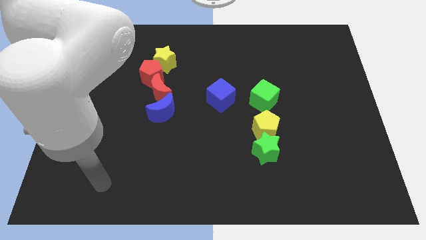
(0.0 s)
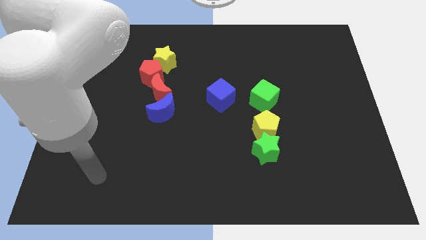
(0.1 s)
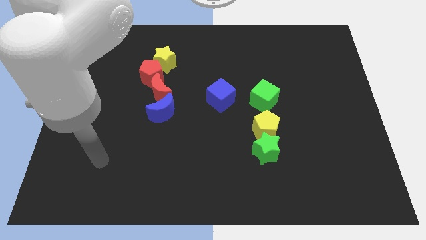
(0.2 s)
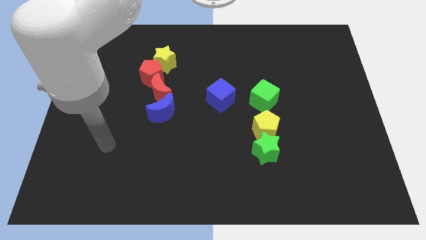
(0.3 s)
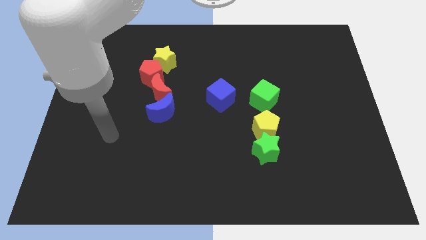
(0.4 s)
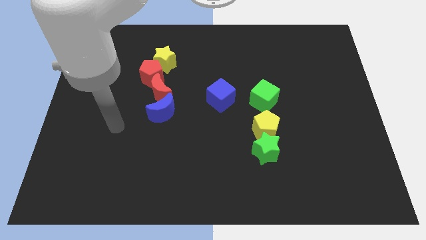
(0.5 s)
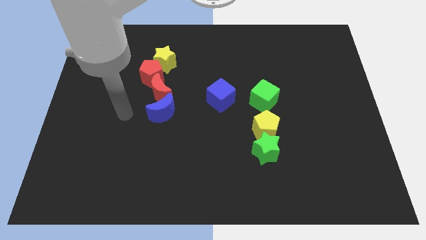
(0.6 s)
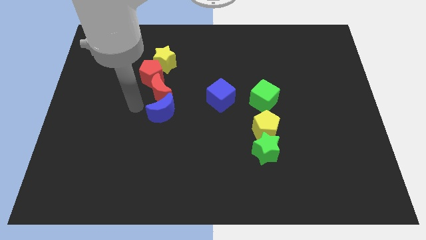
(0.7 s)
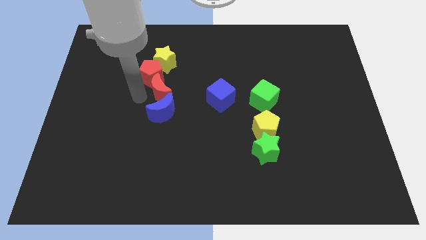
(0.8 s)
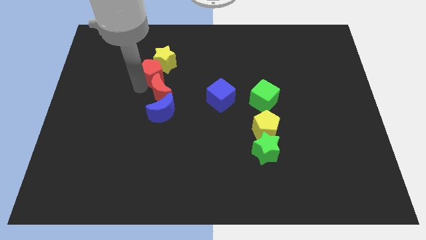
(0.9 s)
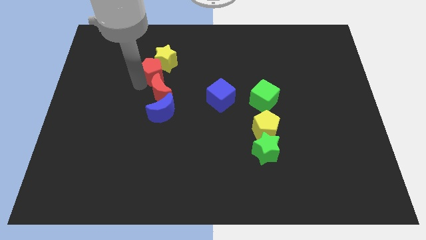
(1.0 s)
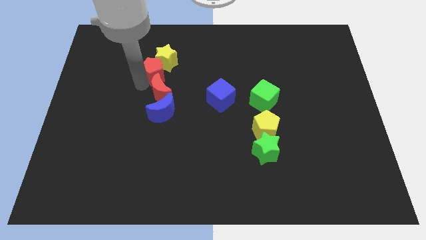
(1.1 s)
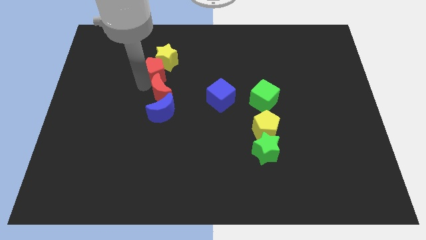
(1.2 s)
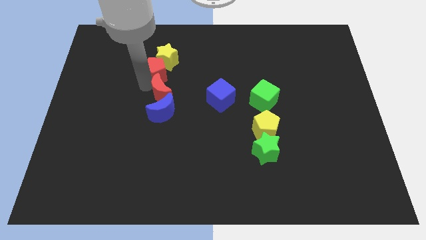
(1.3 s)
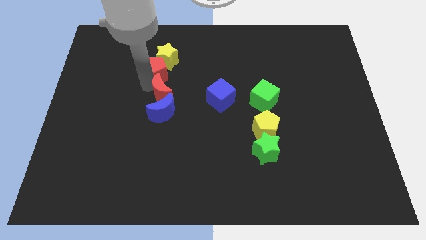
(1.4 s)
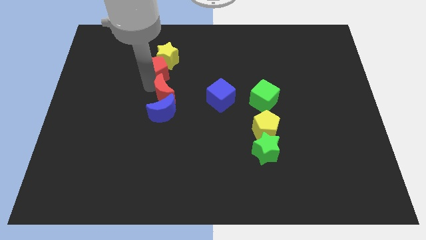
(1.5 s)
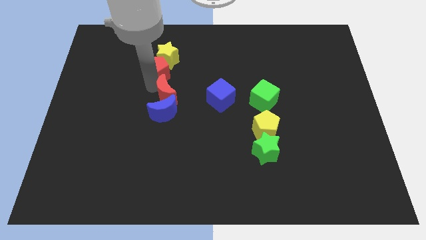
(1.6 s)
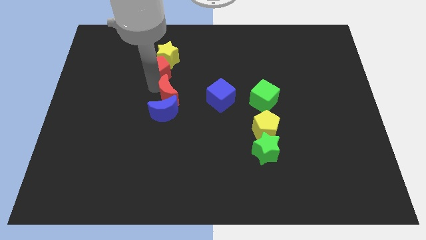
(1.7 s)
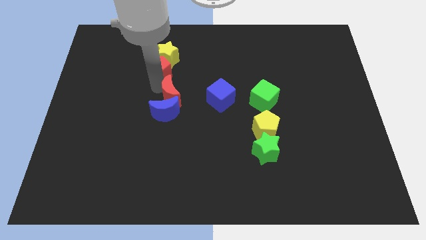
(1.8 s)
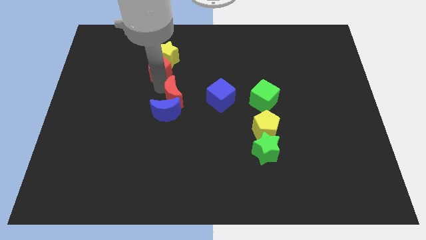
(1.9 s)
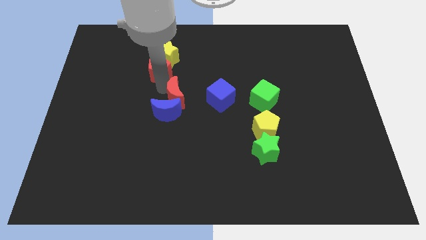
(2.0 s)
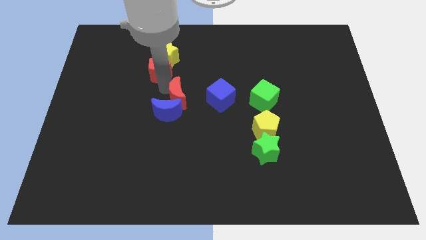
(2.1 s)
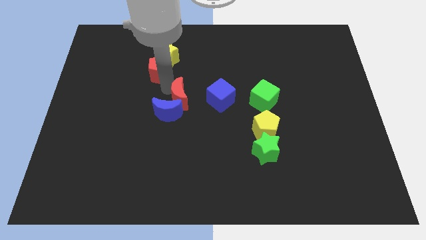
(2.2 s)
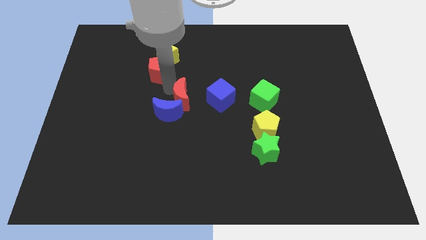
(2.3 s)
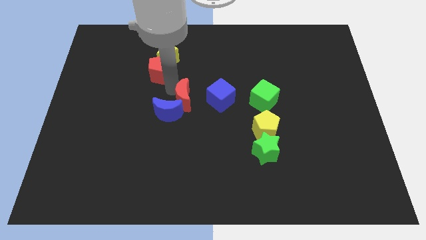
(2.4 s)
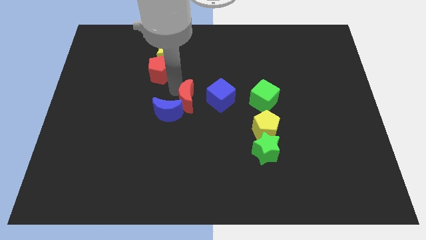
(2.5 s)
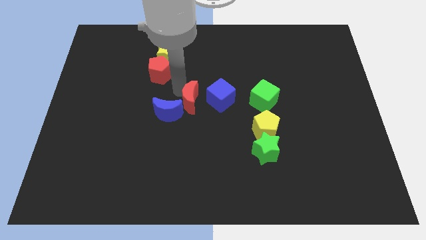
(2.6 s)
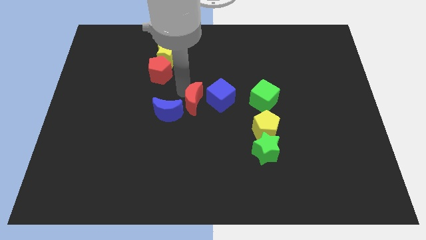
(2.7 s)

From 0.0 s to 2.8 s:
slide the red moon diagonally downwards and right a little

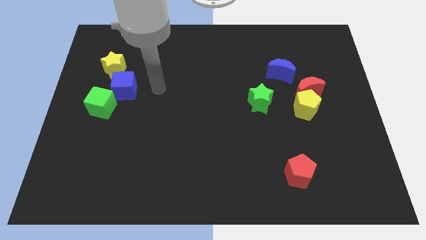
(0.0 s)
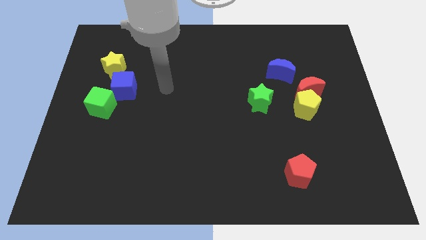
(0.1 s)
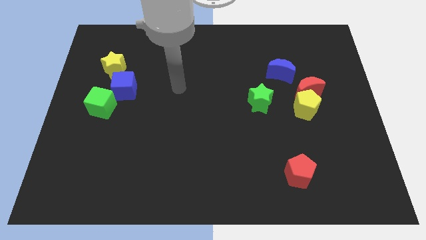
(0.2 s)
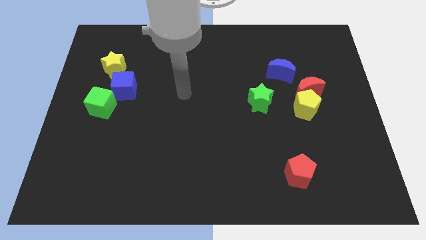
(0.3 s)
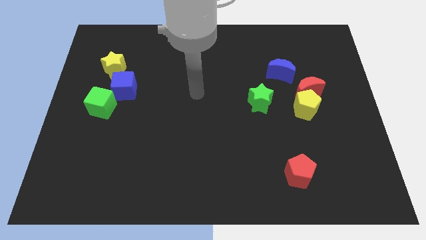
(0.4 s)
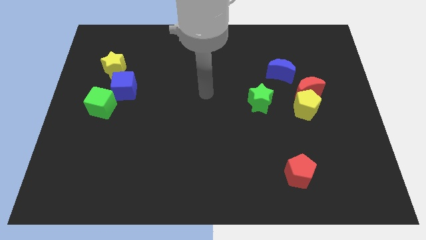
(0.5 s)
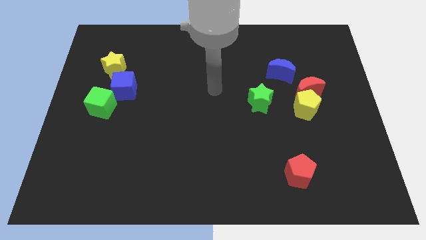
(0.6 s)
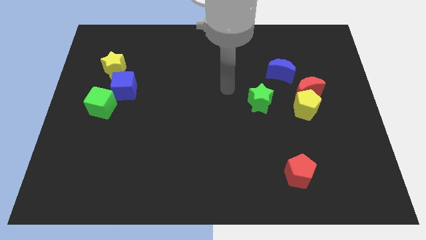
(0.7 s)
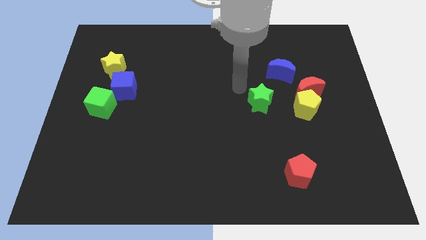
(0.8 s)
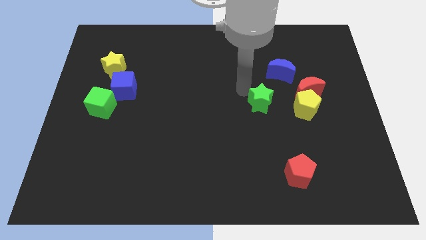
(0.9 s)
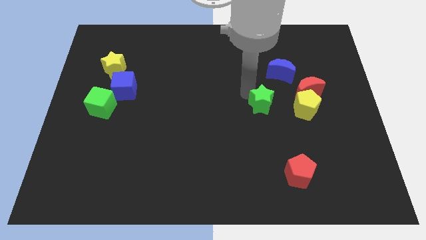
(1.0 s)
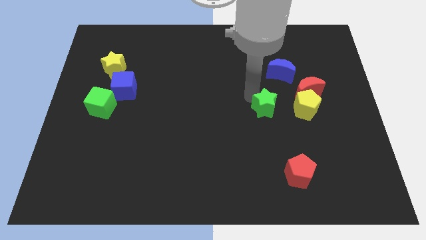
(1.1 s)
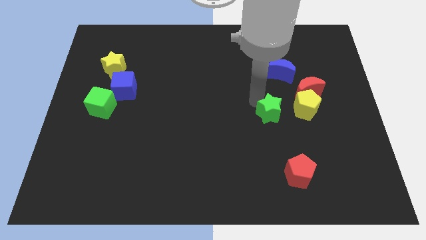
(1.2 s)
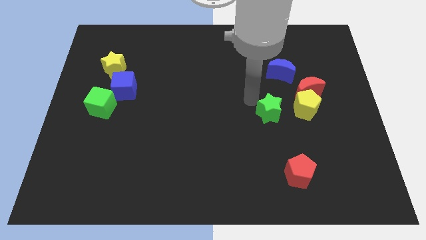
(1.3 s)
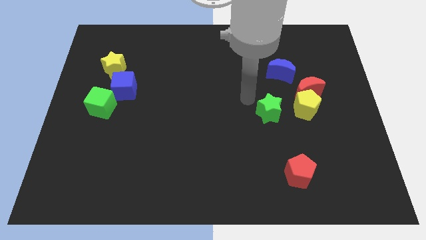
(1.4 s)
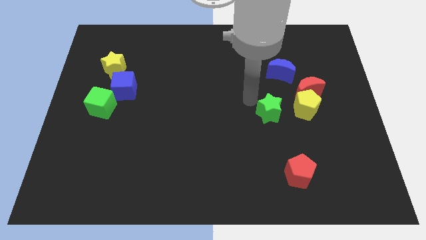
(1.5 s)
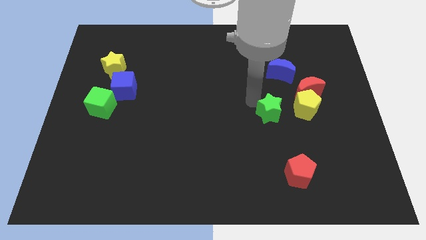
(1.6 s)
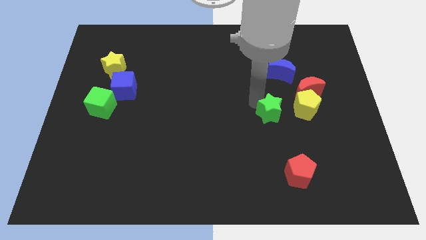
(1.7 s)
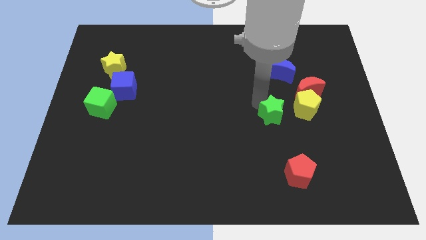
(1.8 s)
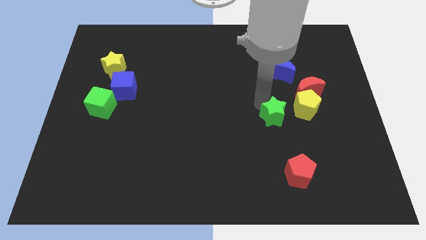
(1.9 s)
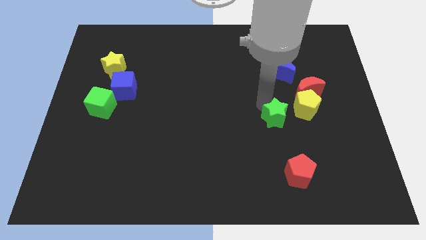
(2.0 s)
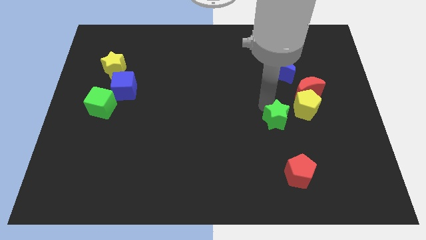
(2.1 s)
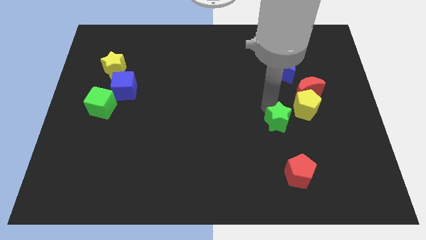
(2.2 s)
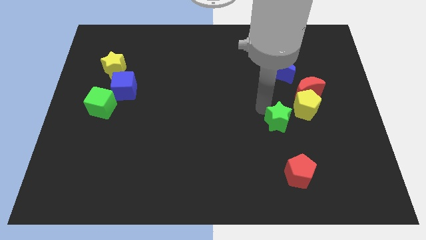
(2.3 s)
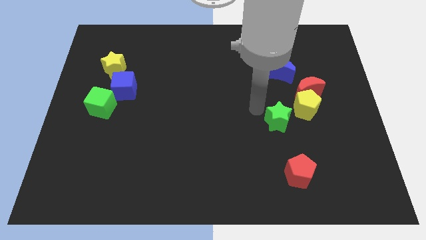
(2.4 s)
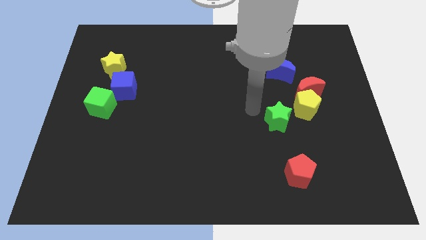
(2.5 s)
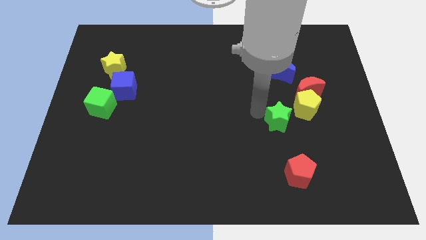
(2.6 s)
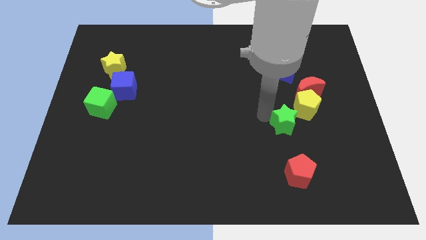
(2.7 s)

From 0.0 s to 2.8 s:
slightly slide the green star diagonally downwards and to the right

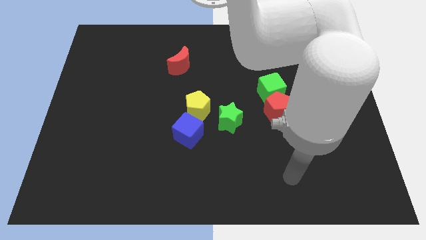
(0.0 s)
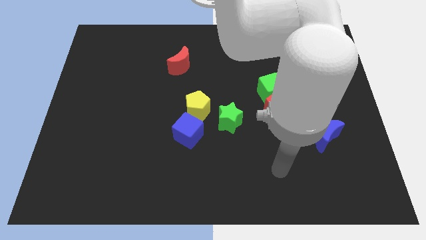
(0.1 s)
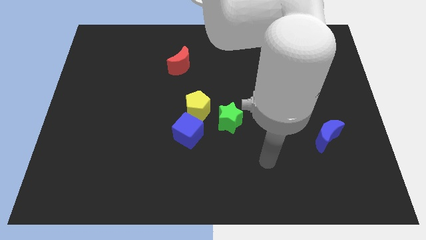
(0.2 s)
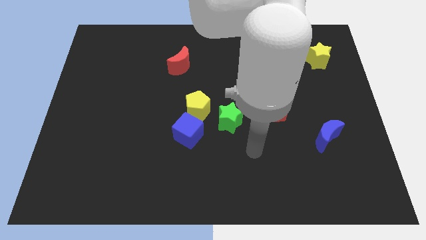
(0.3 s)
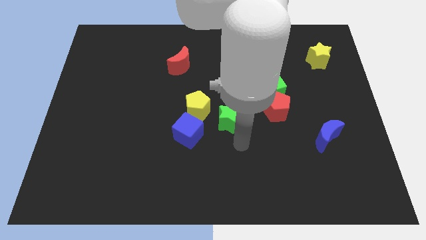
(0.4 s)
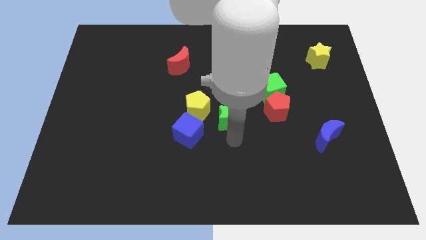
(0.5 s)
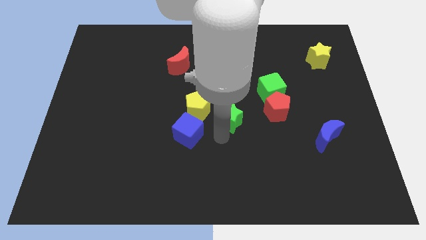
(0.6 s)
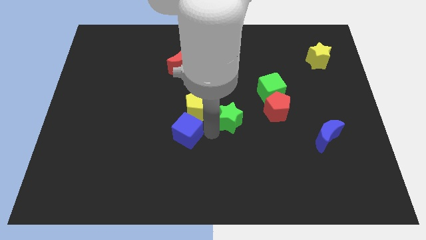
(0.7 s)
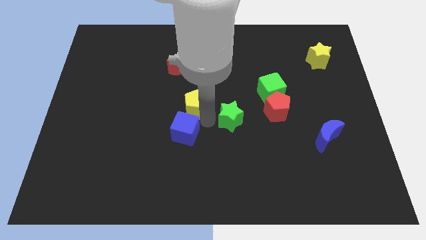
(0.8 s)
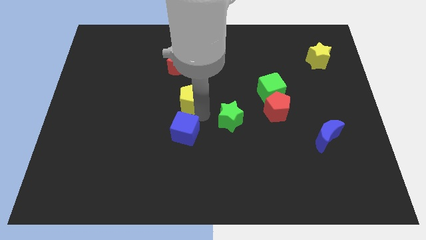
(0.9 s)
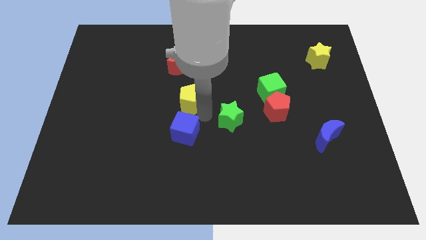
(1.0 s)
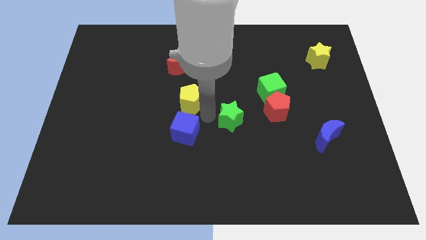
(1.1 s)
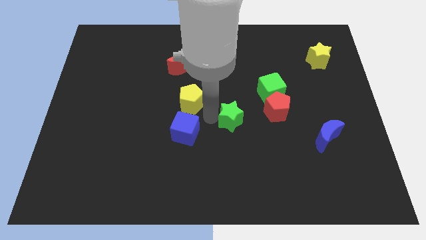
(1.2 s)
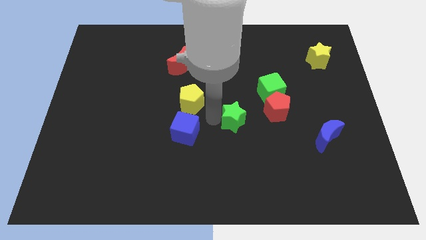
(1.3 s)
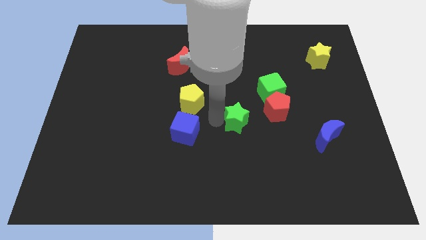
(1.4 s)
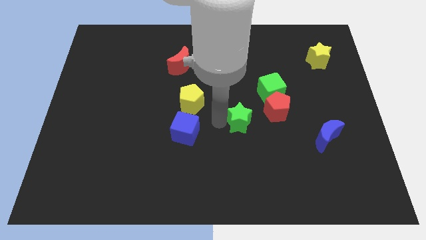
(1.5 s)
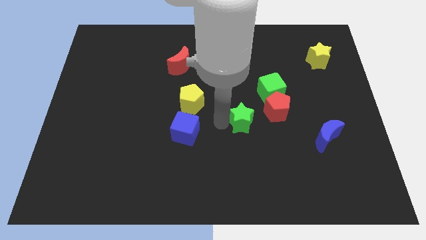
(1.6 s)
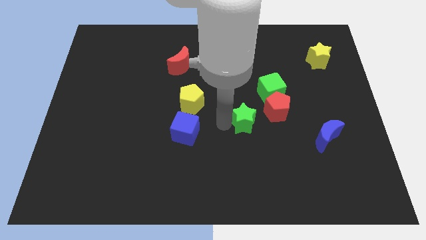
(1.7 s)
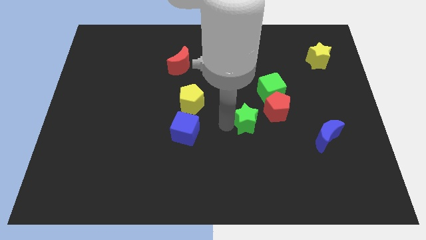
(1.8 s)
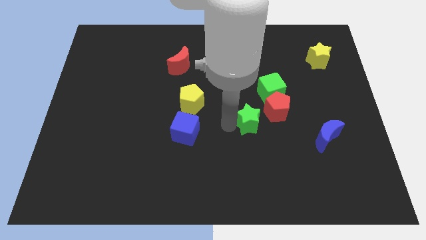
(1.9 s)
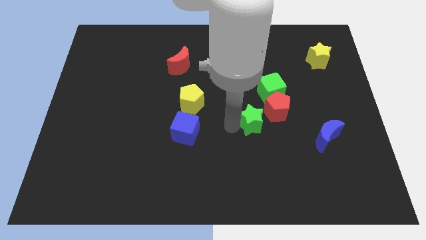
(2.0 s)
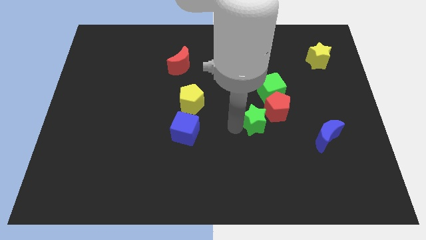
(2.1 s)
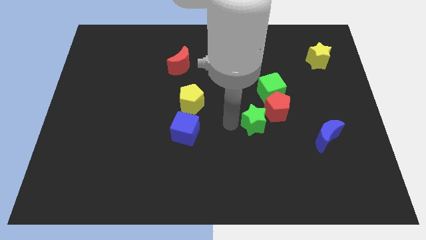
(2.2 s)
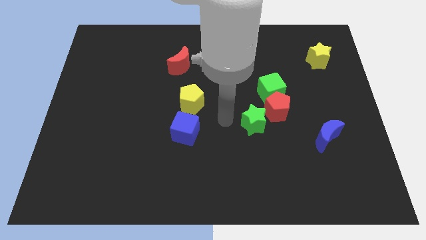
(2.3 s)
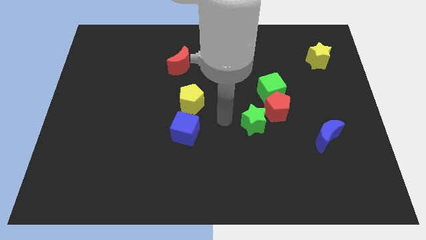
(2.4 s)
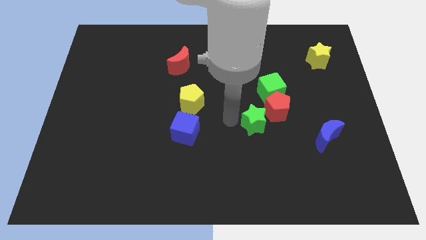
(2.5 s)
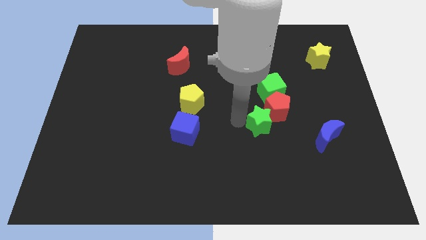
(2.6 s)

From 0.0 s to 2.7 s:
push the green star a little right
